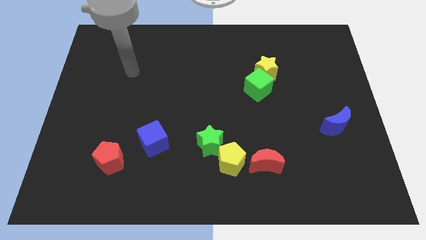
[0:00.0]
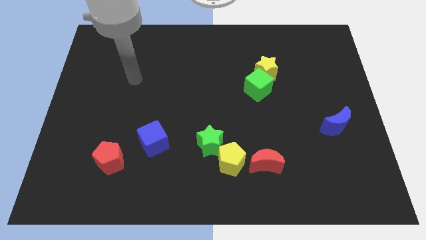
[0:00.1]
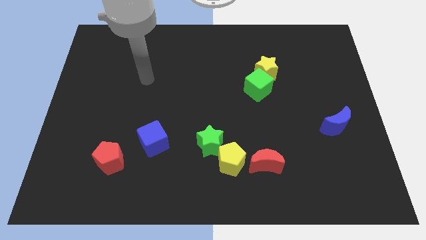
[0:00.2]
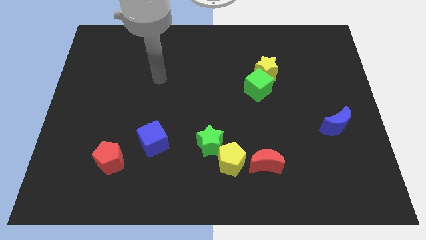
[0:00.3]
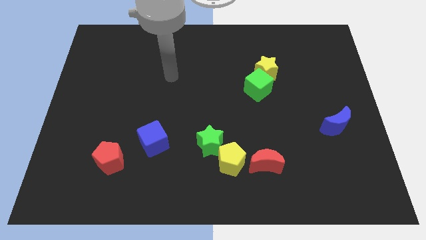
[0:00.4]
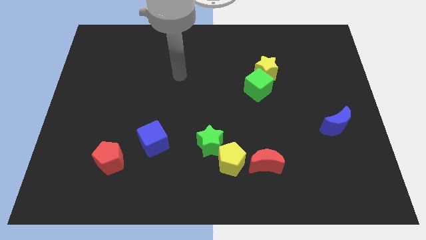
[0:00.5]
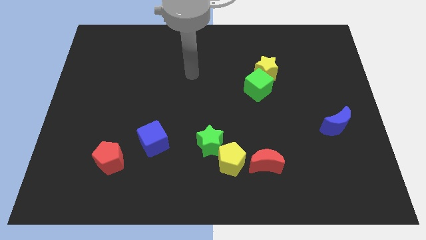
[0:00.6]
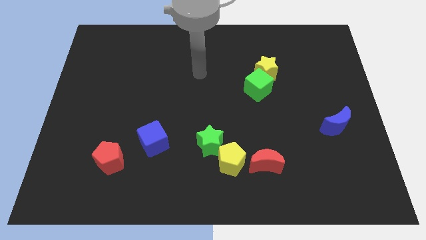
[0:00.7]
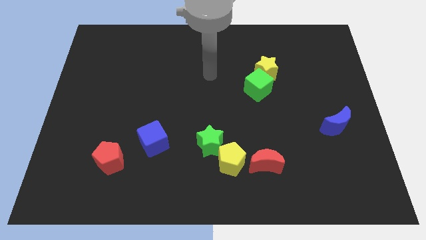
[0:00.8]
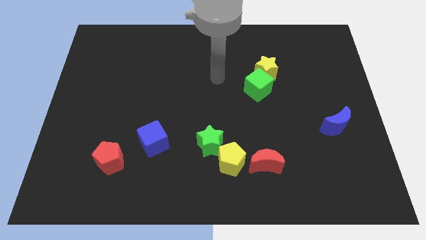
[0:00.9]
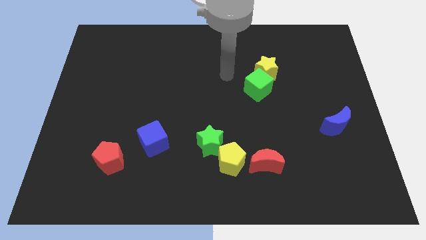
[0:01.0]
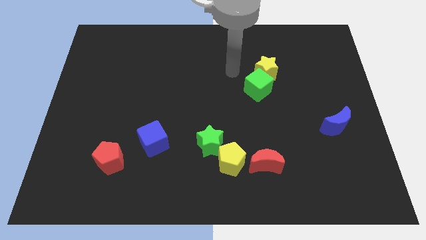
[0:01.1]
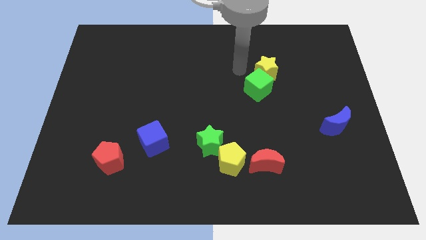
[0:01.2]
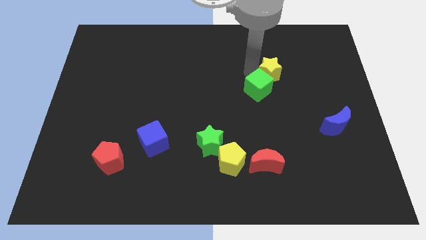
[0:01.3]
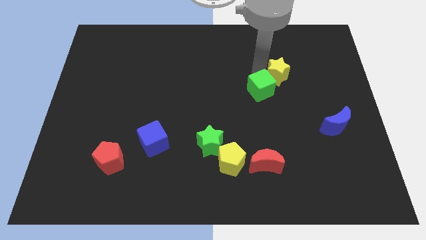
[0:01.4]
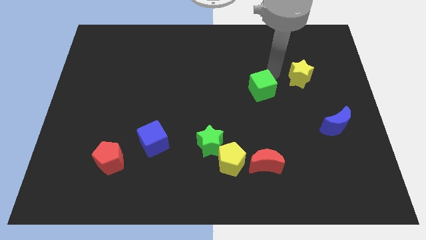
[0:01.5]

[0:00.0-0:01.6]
move the green cube away from the yellow star

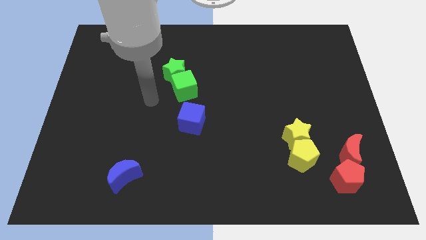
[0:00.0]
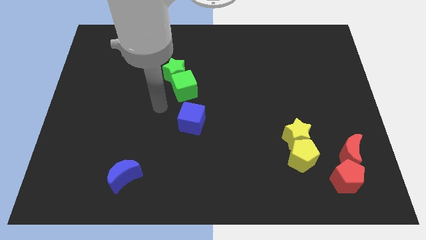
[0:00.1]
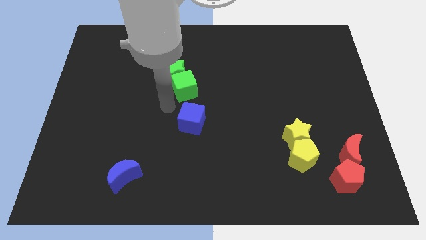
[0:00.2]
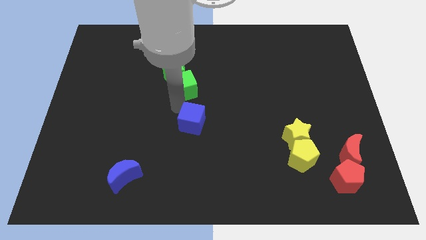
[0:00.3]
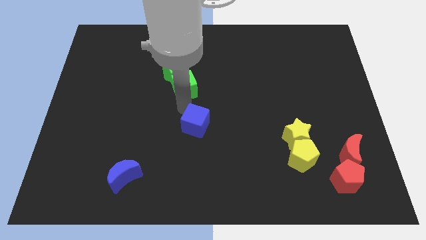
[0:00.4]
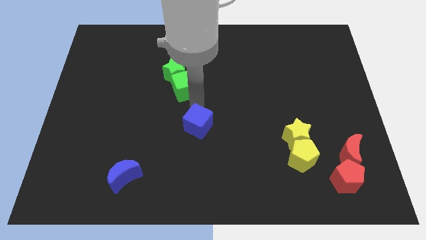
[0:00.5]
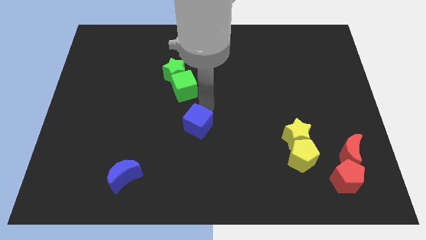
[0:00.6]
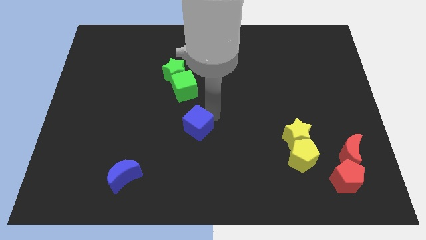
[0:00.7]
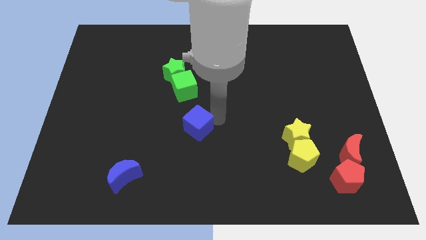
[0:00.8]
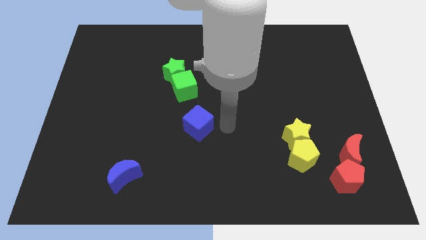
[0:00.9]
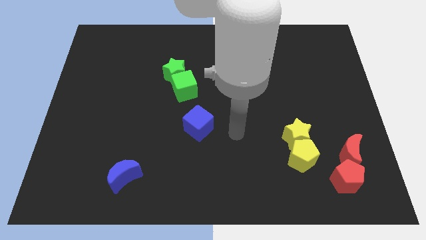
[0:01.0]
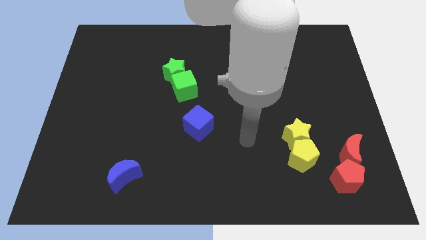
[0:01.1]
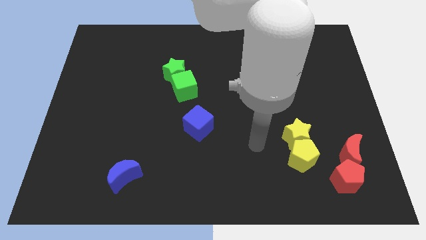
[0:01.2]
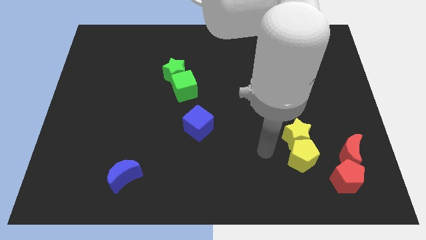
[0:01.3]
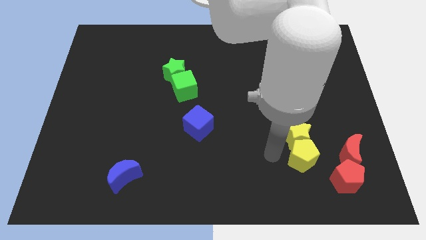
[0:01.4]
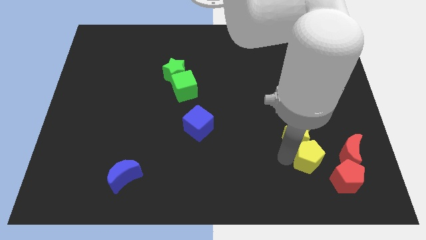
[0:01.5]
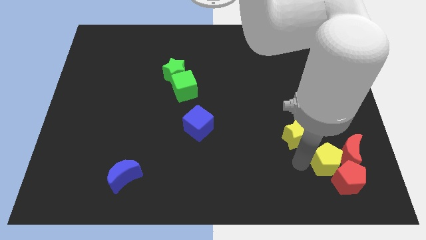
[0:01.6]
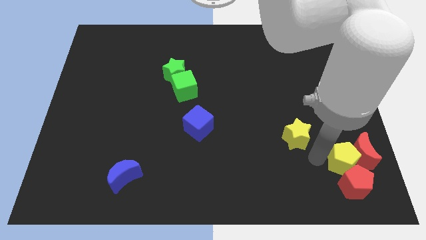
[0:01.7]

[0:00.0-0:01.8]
move the yellow star away from the yellow pentagon

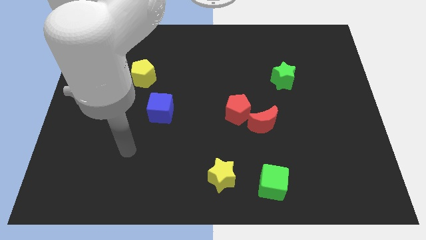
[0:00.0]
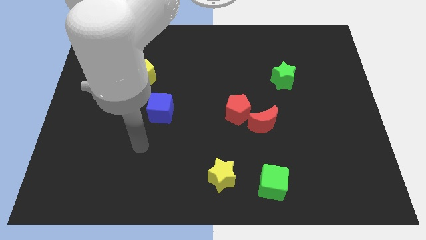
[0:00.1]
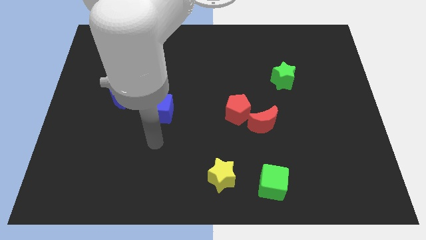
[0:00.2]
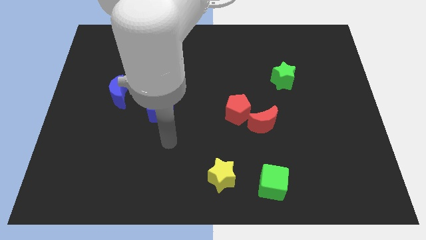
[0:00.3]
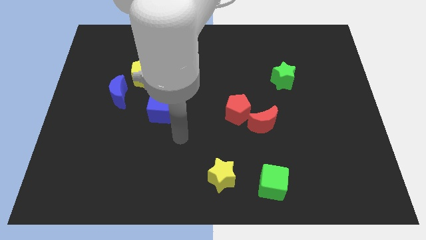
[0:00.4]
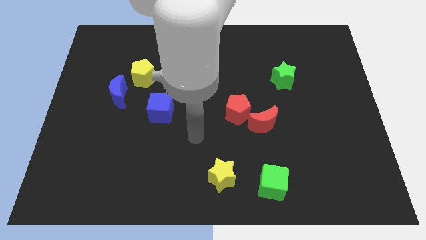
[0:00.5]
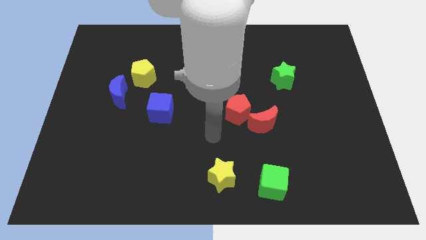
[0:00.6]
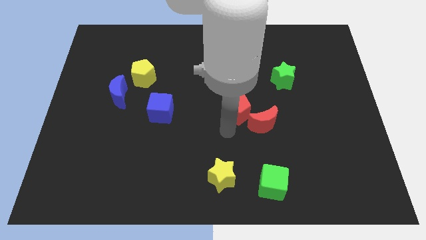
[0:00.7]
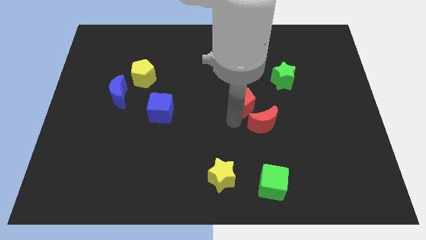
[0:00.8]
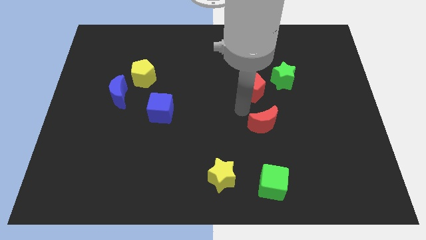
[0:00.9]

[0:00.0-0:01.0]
move the red moon away from the red pentagon

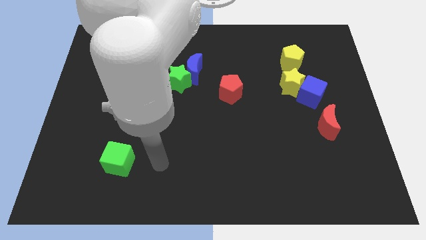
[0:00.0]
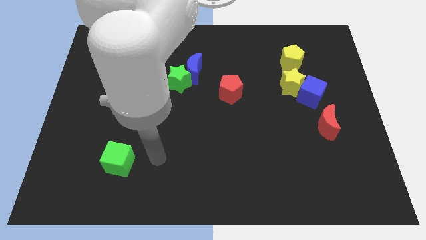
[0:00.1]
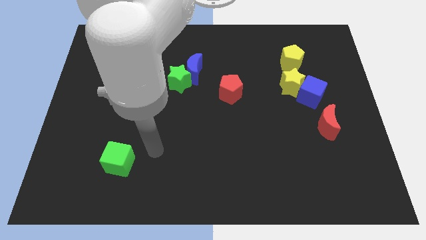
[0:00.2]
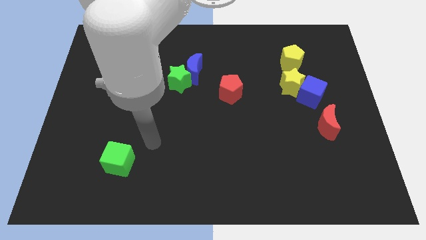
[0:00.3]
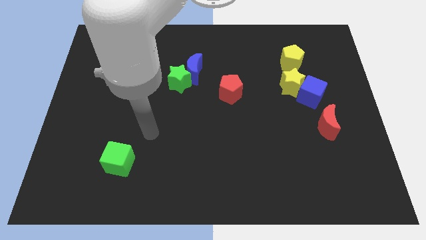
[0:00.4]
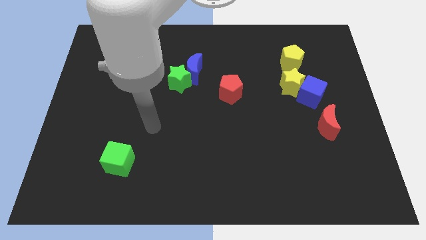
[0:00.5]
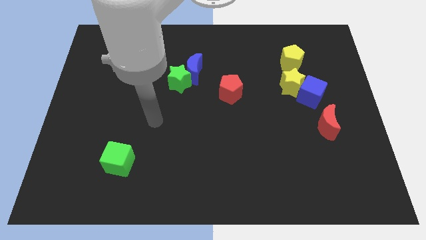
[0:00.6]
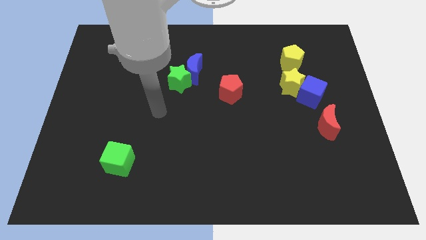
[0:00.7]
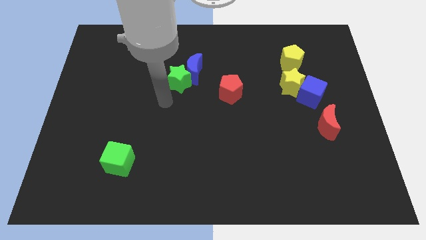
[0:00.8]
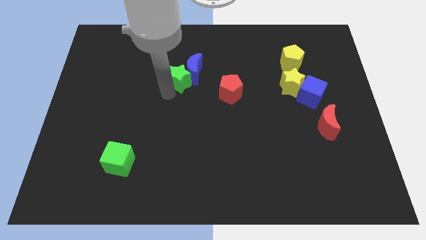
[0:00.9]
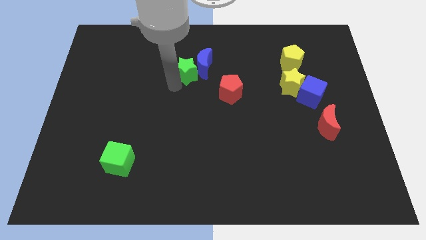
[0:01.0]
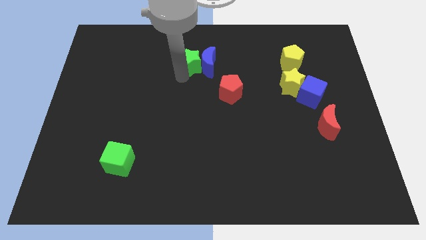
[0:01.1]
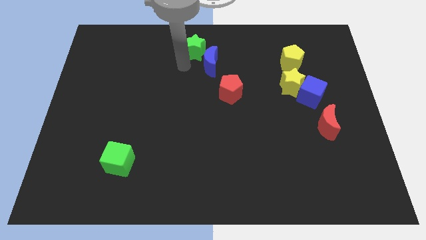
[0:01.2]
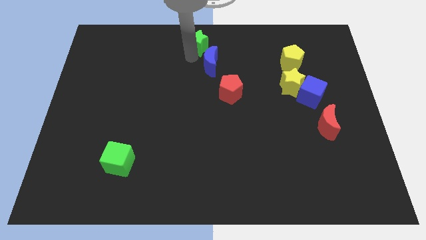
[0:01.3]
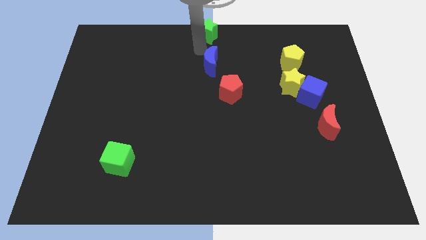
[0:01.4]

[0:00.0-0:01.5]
pull the blue moon apart from the green star

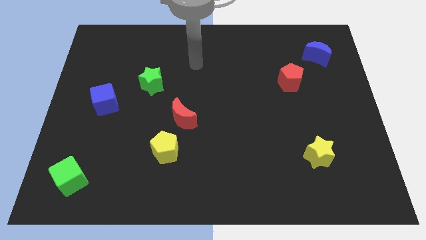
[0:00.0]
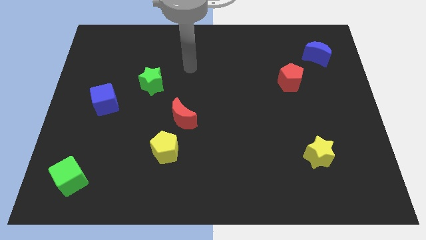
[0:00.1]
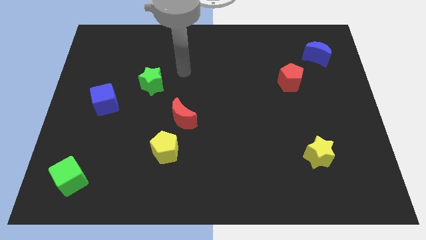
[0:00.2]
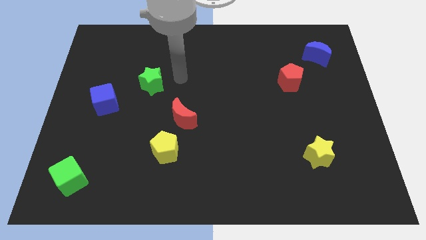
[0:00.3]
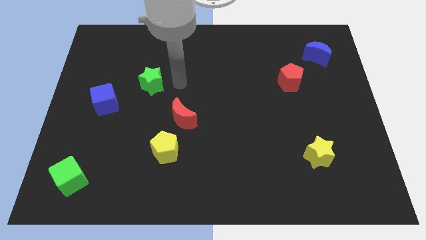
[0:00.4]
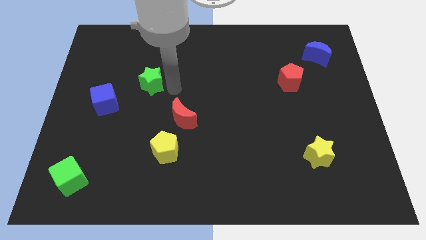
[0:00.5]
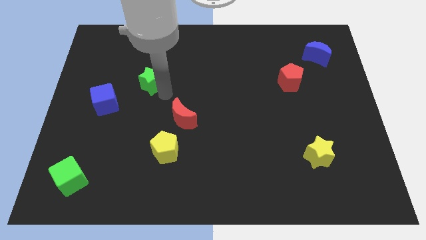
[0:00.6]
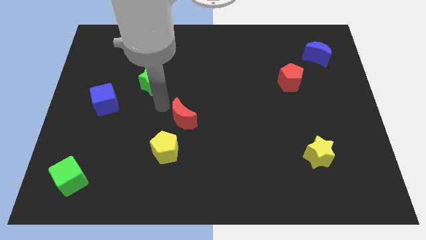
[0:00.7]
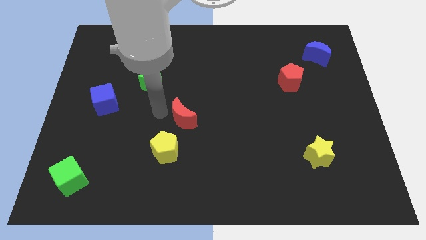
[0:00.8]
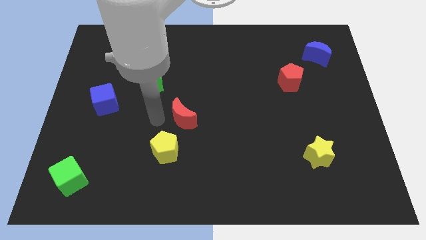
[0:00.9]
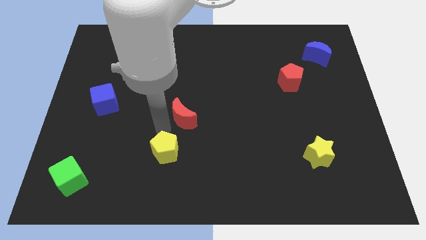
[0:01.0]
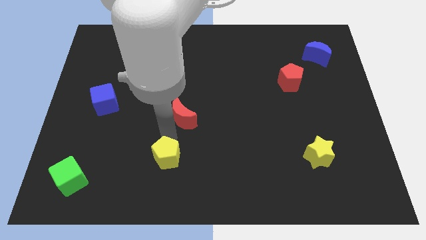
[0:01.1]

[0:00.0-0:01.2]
move the red moon away from the yellow pentagon

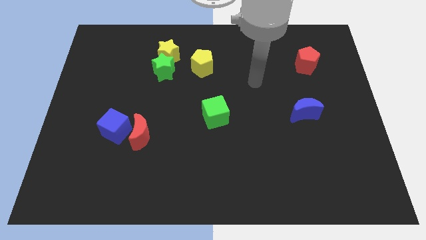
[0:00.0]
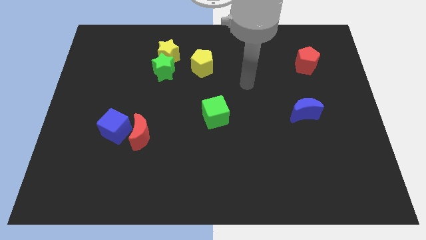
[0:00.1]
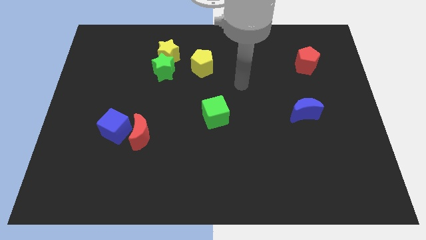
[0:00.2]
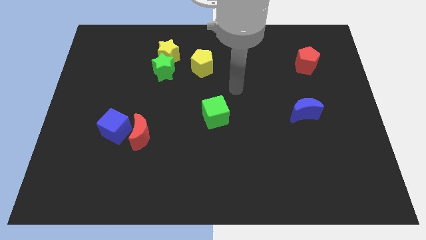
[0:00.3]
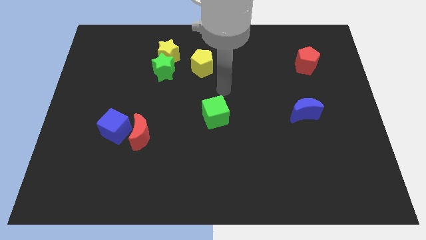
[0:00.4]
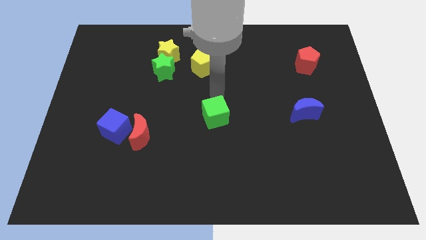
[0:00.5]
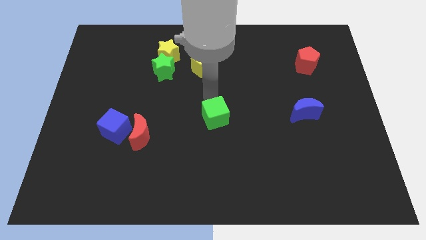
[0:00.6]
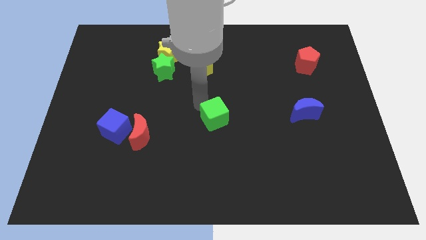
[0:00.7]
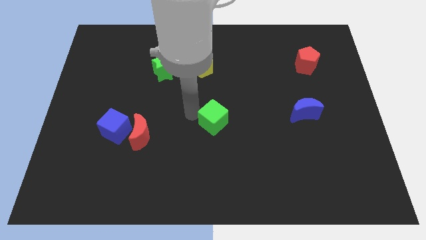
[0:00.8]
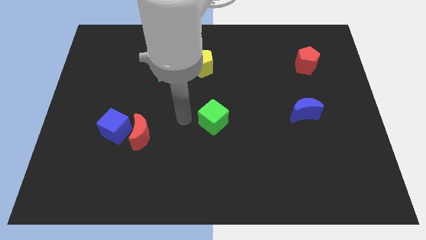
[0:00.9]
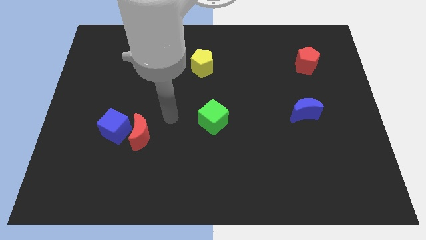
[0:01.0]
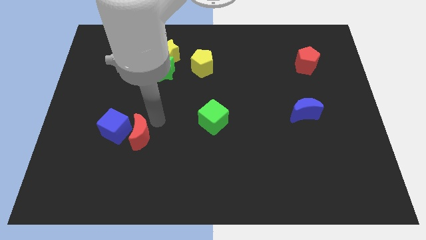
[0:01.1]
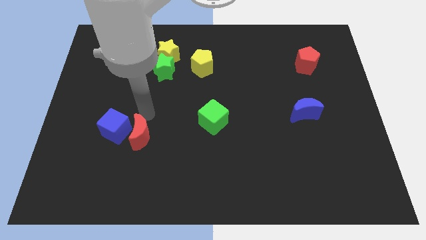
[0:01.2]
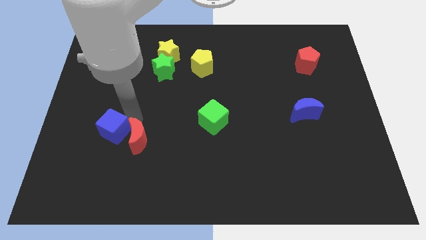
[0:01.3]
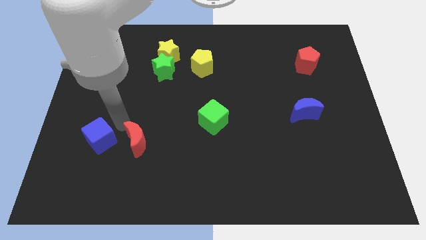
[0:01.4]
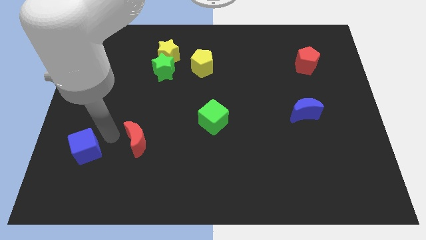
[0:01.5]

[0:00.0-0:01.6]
move the red moon away from the blue cube

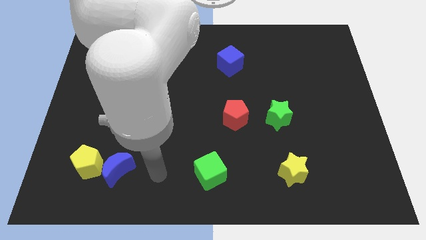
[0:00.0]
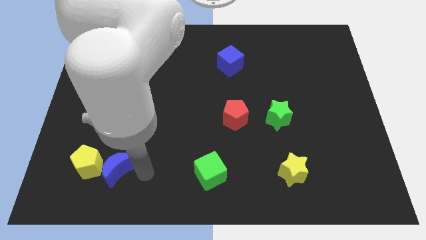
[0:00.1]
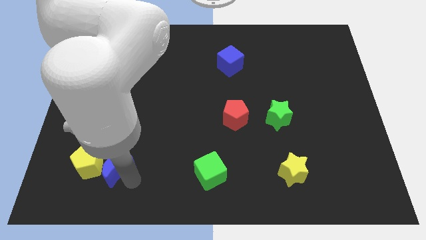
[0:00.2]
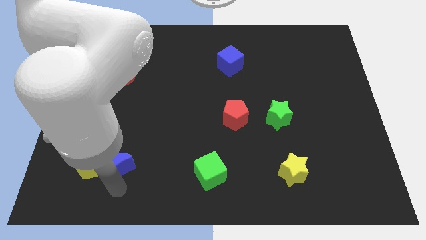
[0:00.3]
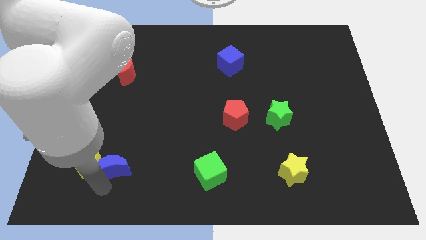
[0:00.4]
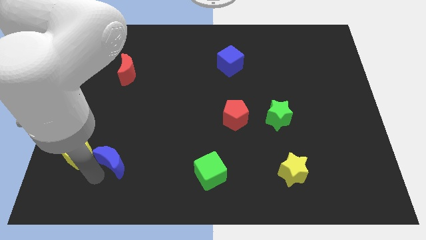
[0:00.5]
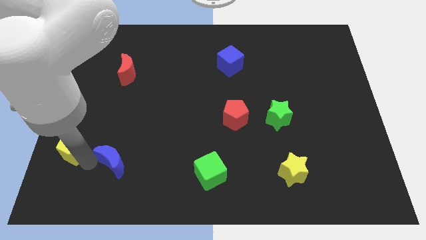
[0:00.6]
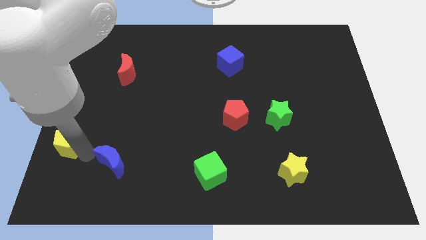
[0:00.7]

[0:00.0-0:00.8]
move the blue moon away from the yellow pentagon
